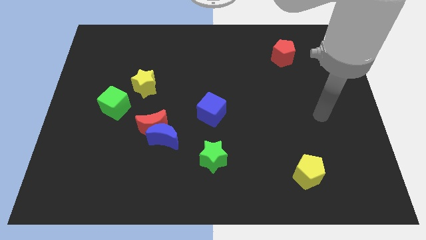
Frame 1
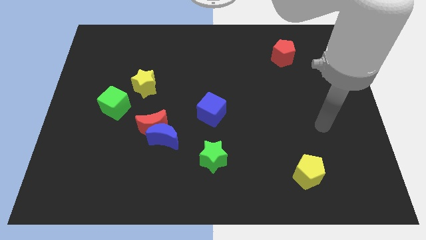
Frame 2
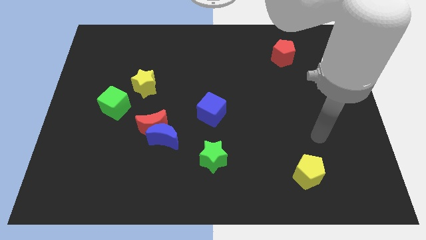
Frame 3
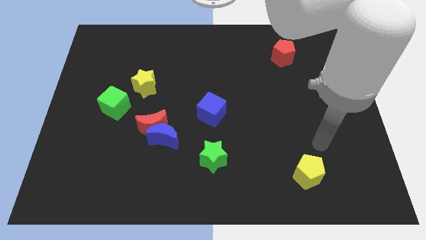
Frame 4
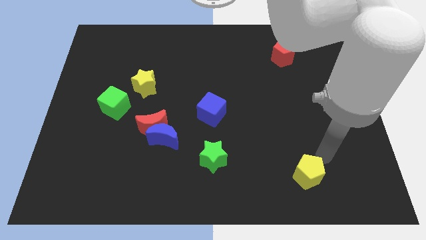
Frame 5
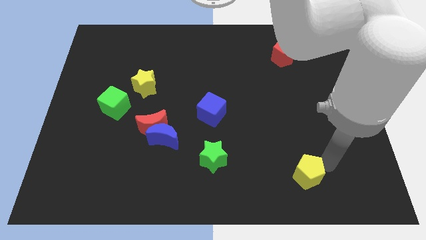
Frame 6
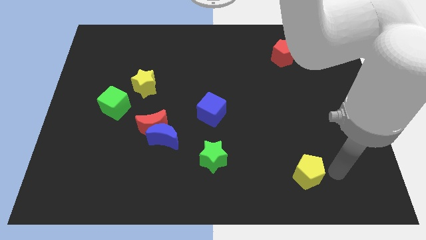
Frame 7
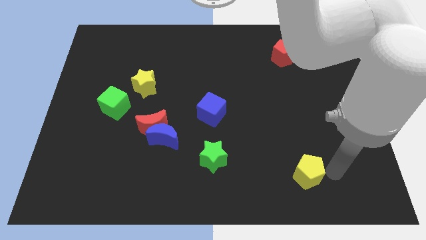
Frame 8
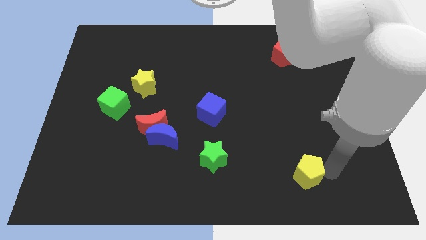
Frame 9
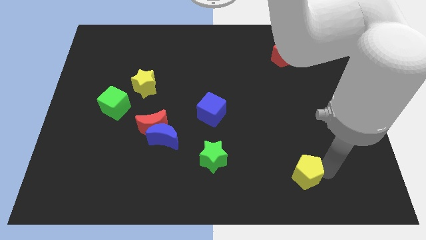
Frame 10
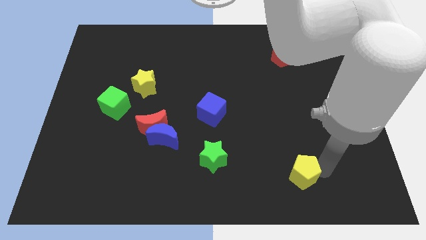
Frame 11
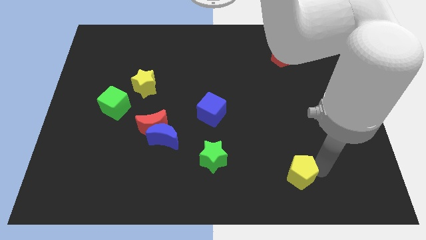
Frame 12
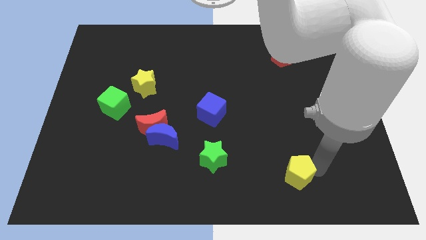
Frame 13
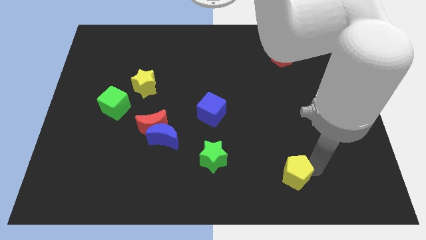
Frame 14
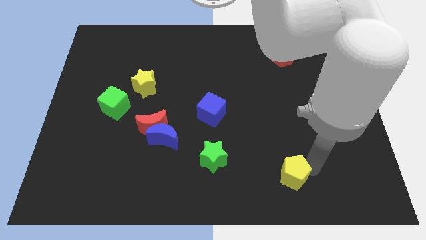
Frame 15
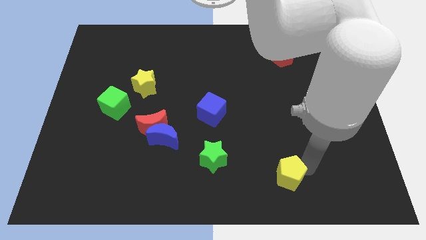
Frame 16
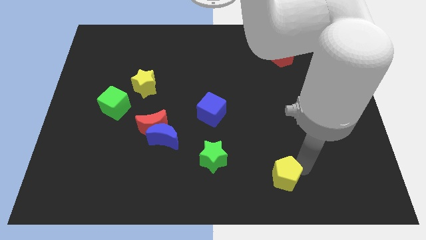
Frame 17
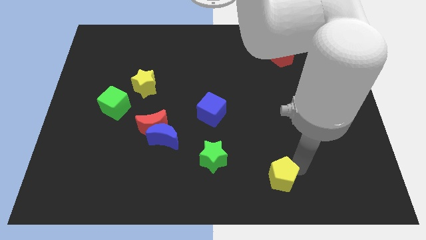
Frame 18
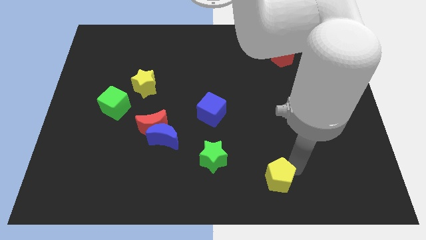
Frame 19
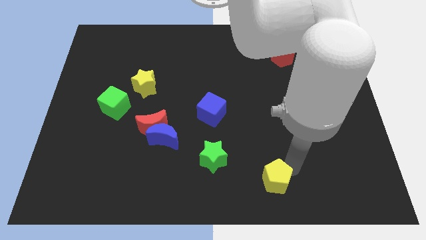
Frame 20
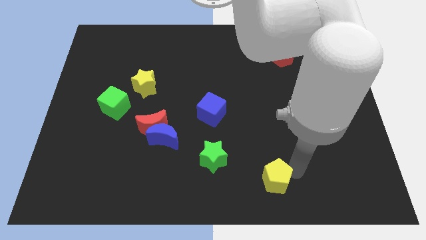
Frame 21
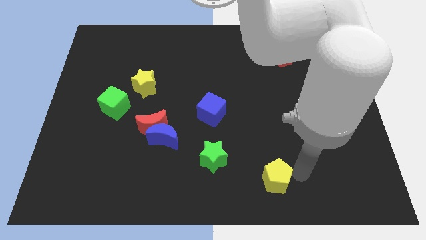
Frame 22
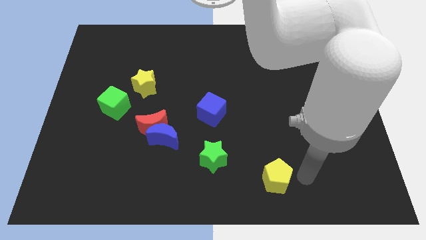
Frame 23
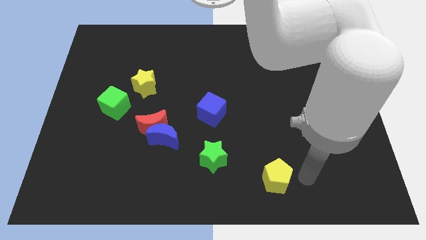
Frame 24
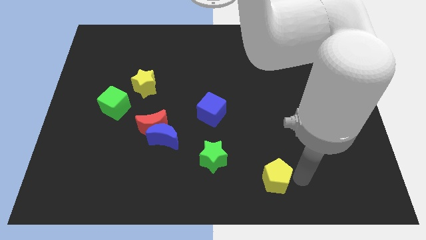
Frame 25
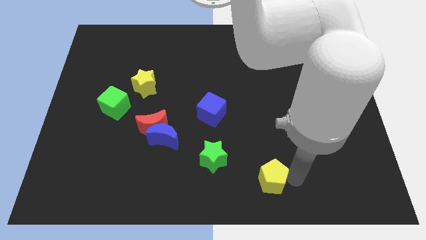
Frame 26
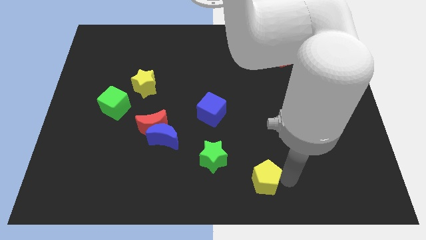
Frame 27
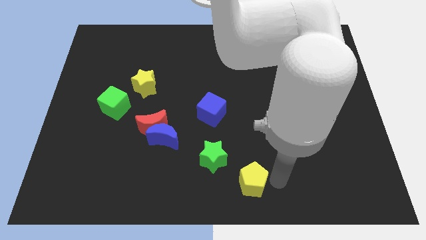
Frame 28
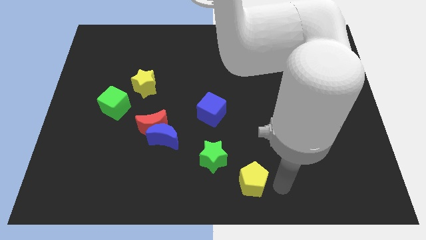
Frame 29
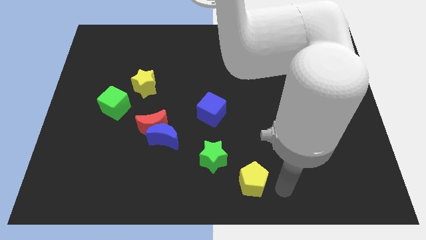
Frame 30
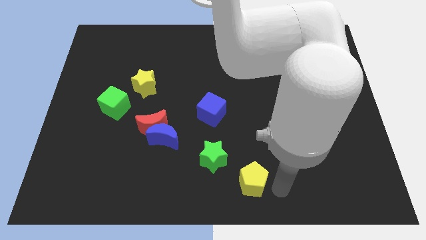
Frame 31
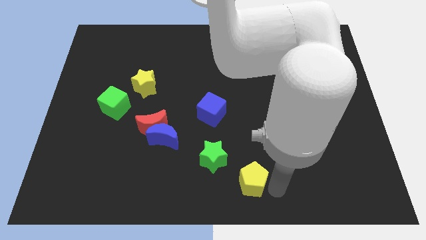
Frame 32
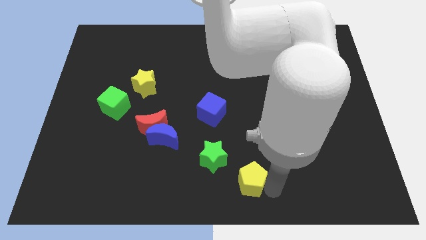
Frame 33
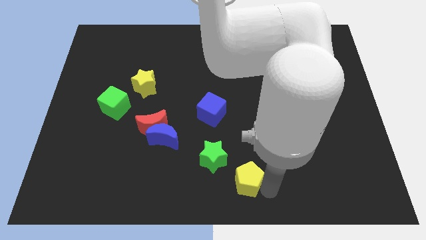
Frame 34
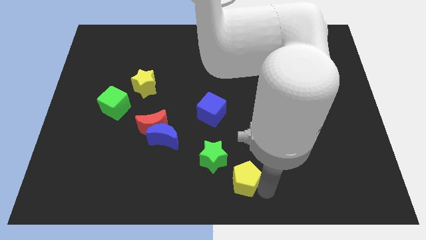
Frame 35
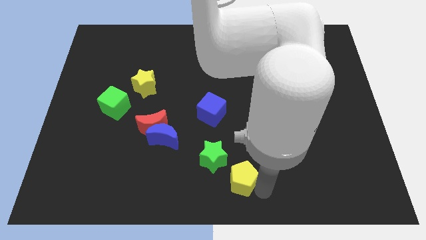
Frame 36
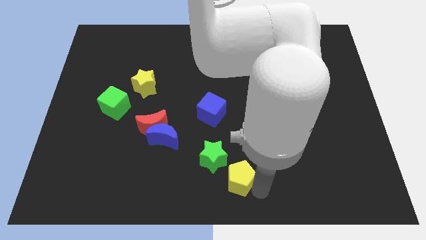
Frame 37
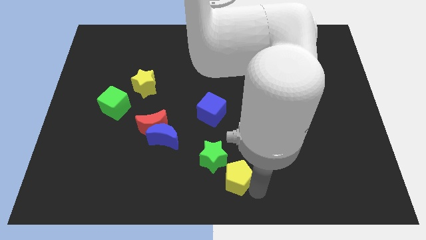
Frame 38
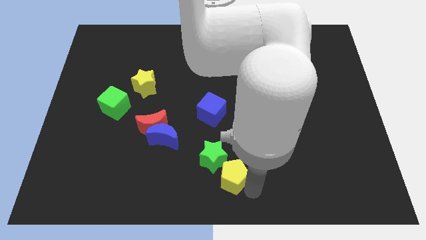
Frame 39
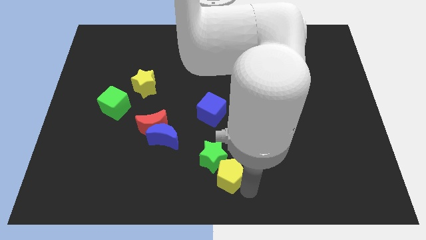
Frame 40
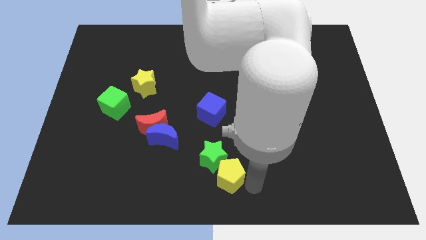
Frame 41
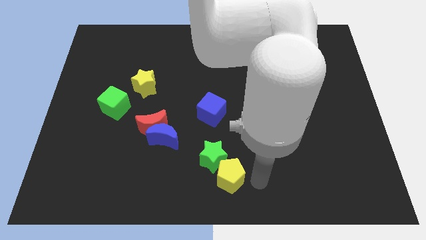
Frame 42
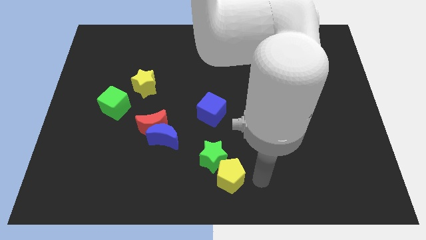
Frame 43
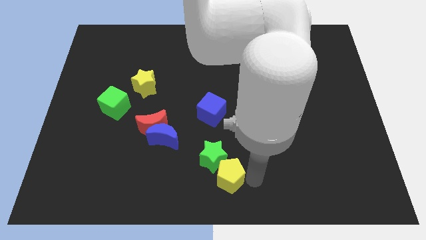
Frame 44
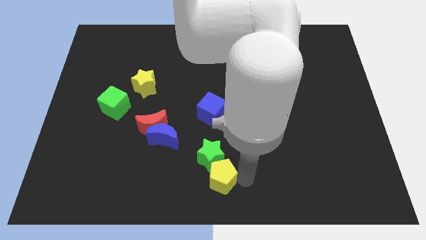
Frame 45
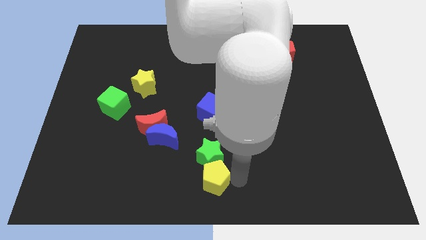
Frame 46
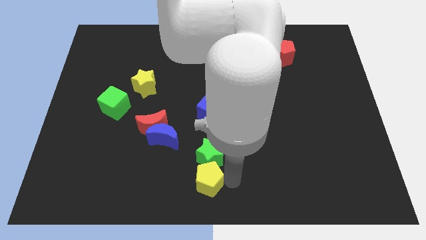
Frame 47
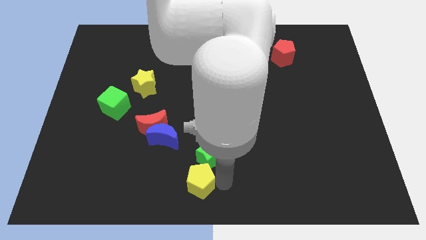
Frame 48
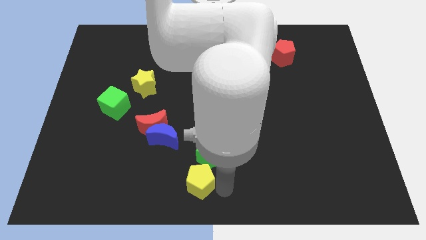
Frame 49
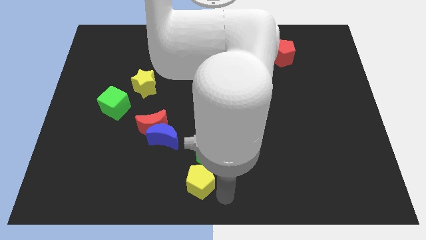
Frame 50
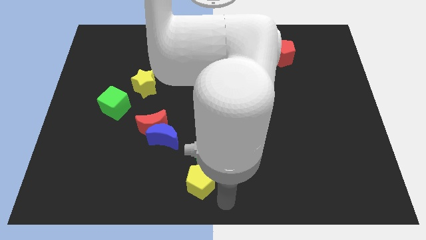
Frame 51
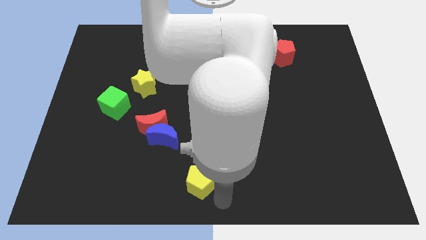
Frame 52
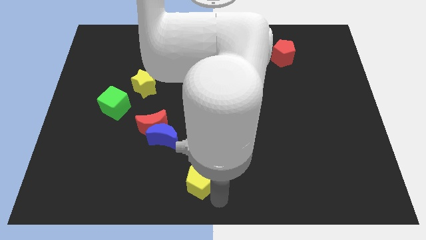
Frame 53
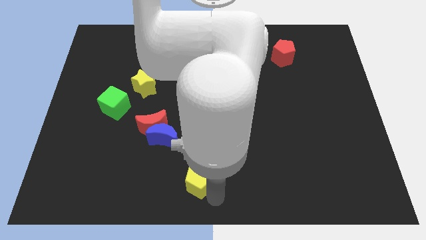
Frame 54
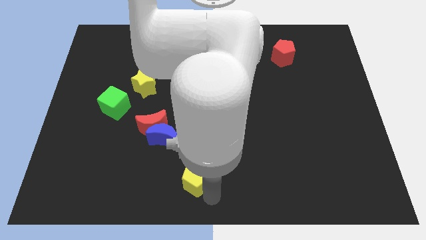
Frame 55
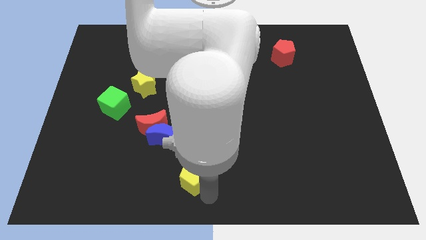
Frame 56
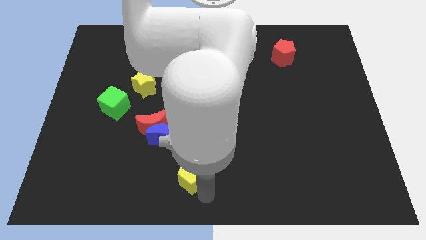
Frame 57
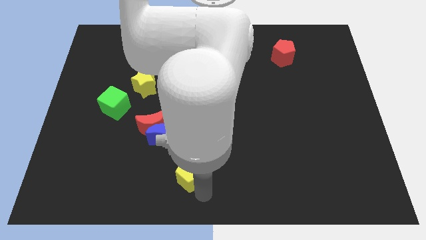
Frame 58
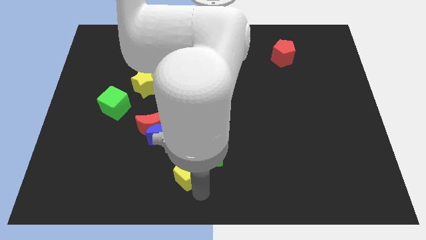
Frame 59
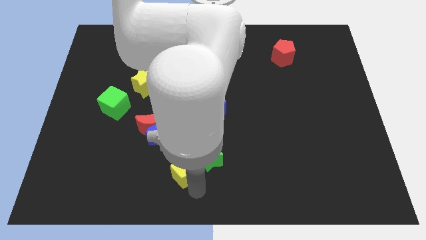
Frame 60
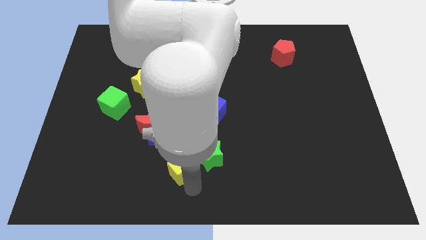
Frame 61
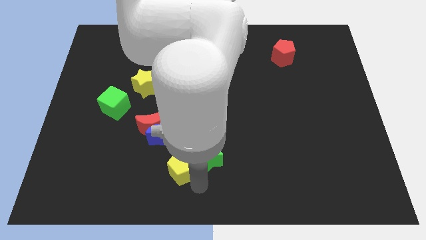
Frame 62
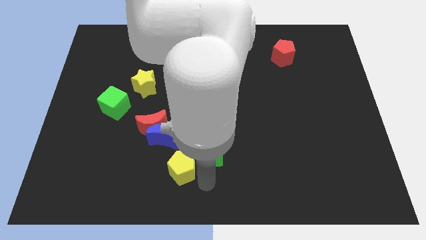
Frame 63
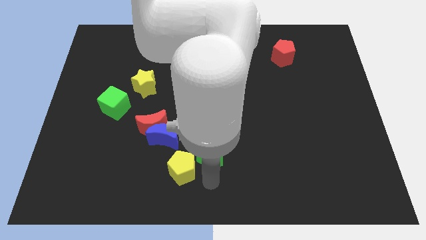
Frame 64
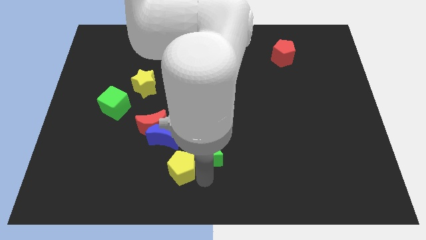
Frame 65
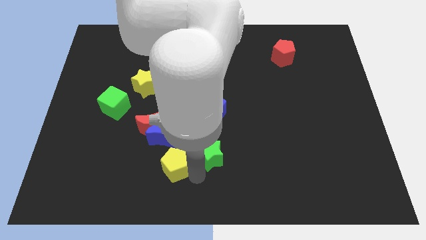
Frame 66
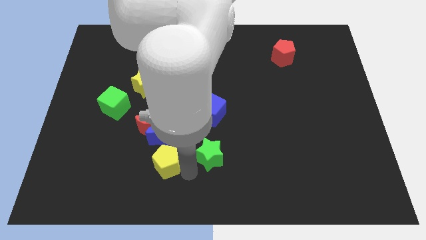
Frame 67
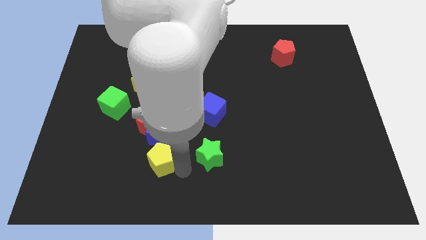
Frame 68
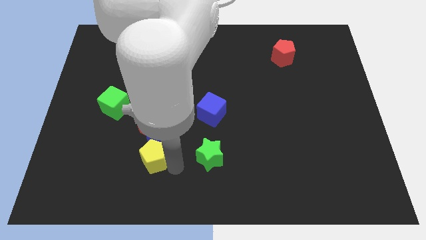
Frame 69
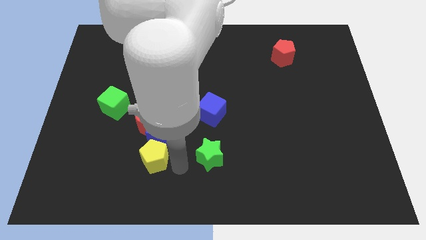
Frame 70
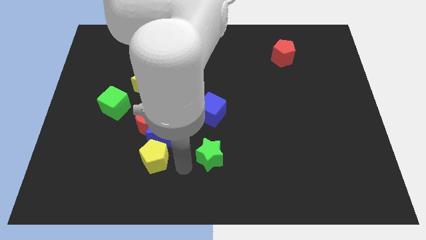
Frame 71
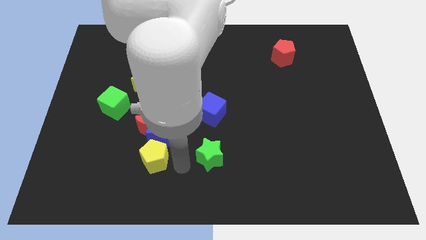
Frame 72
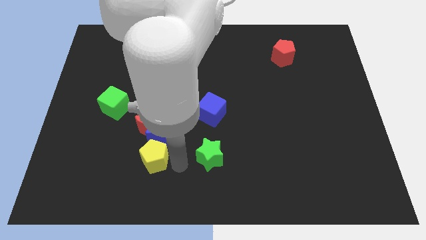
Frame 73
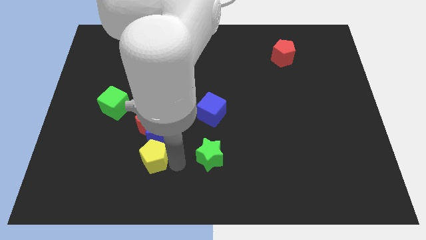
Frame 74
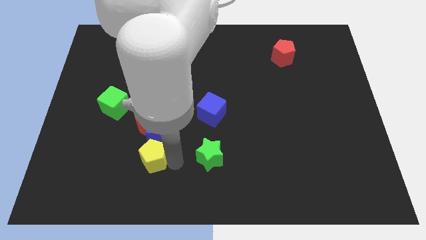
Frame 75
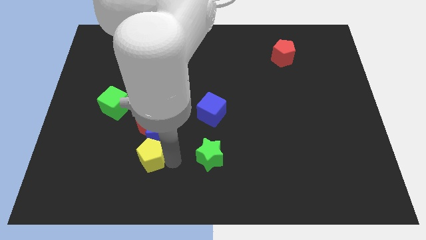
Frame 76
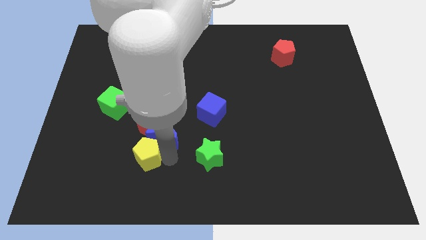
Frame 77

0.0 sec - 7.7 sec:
move the yellow pentagon to the left of the blue moon
